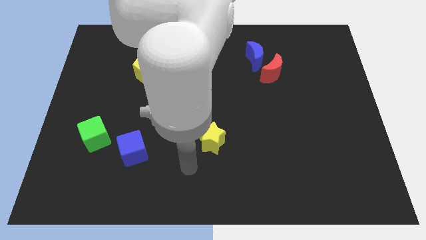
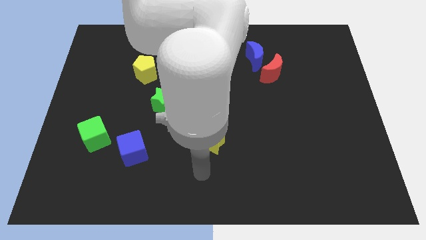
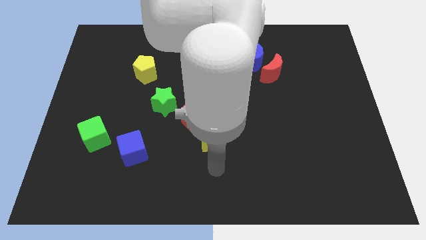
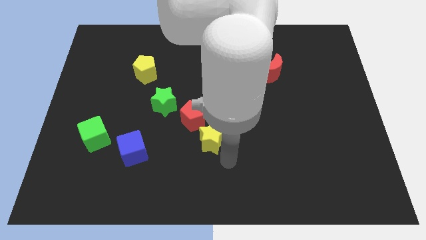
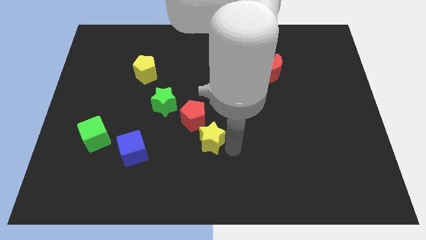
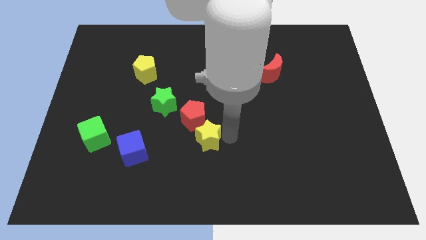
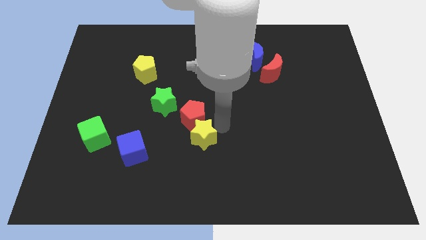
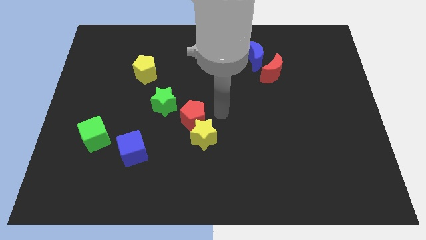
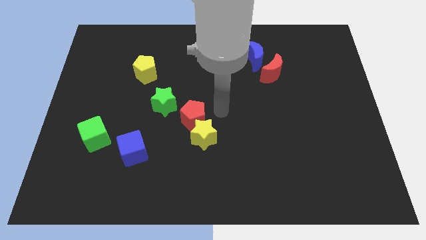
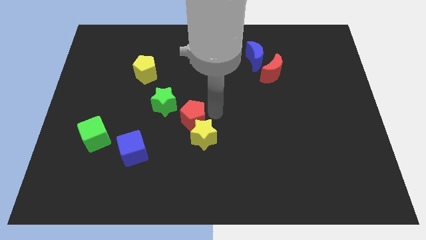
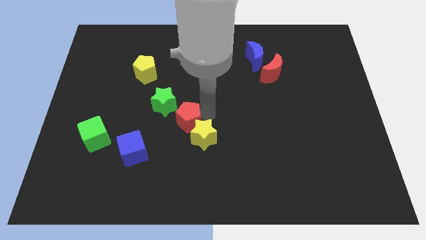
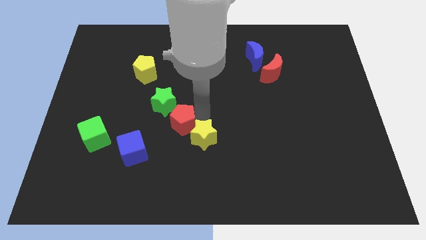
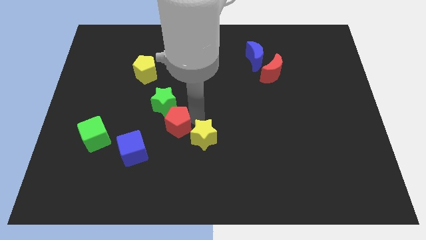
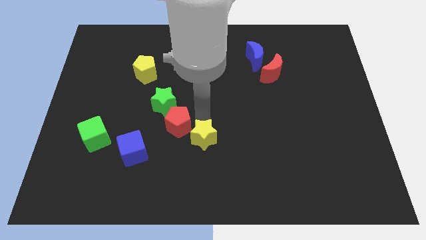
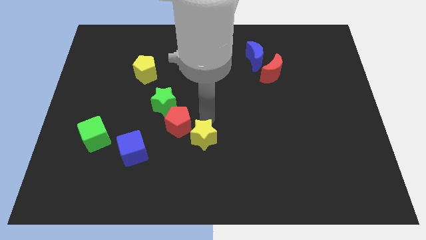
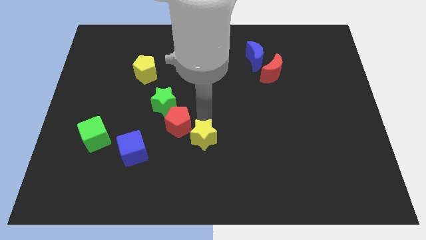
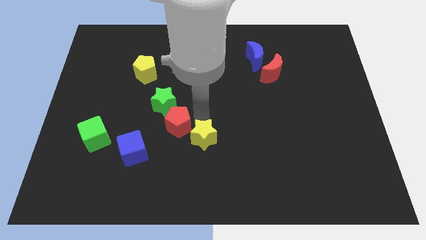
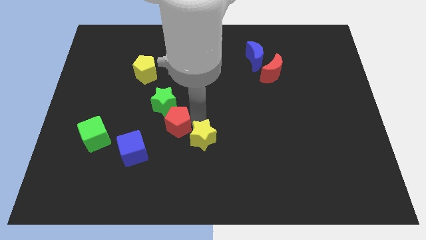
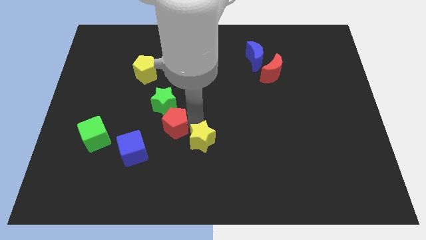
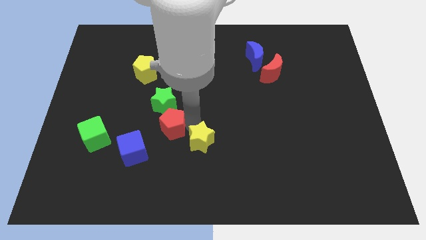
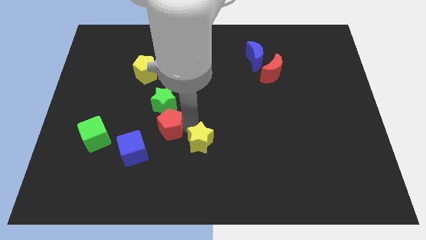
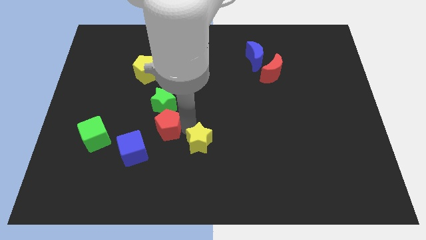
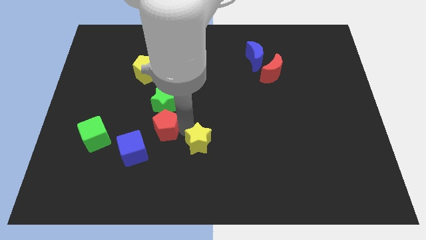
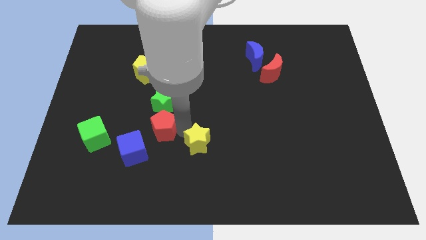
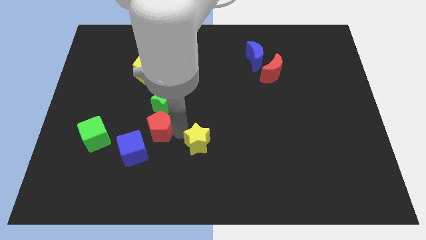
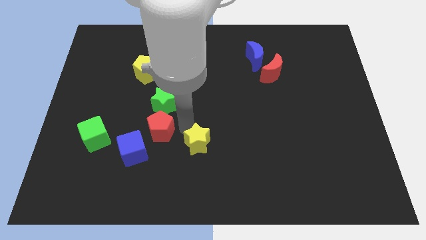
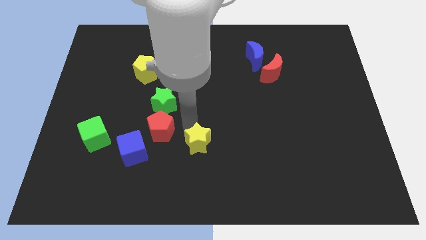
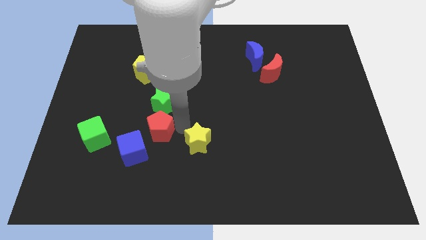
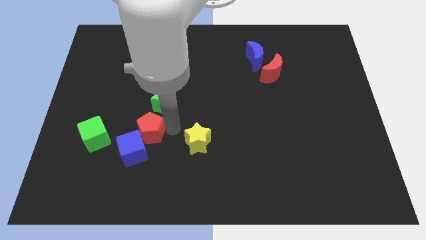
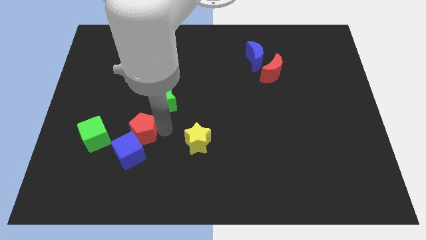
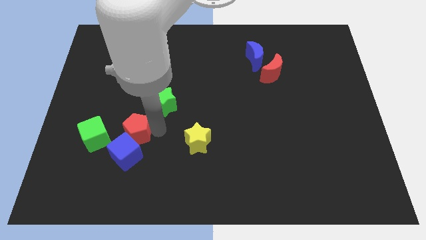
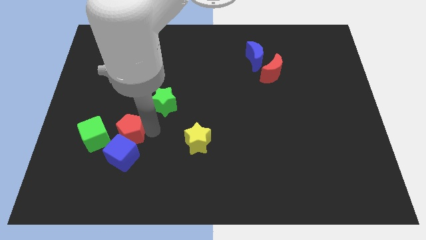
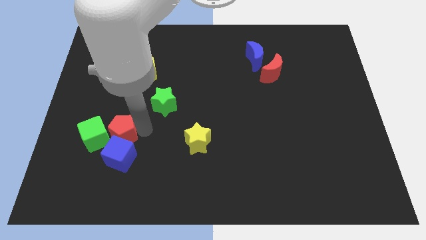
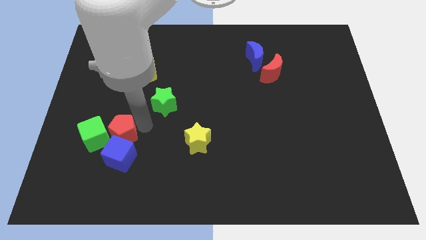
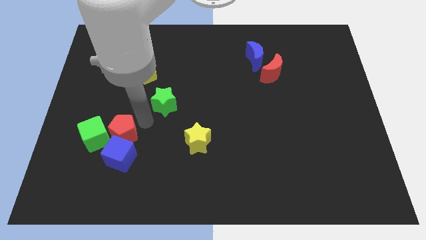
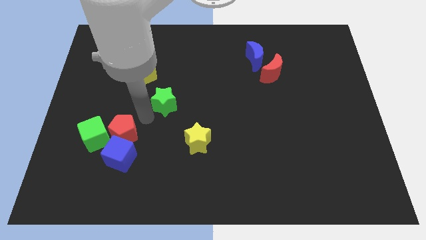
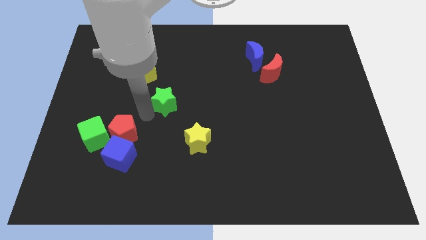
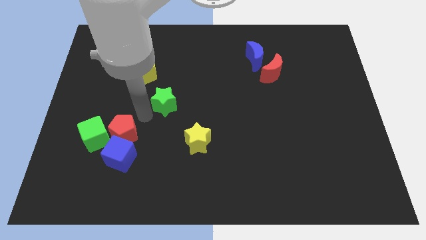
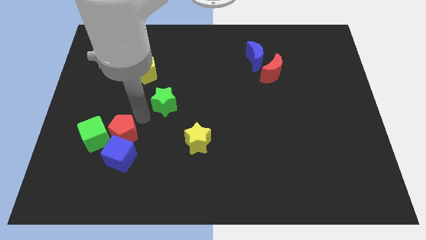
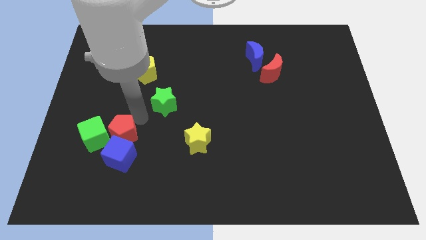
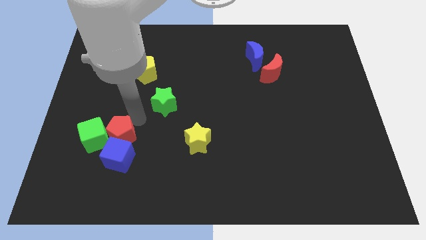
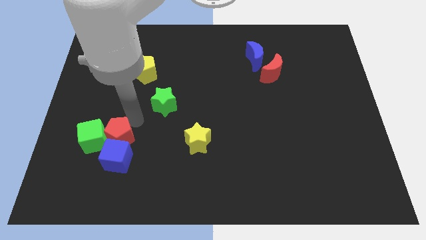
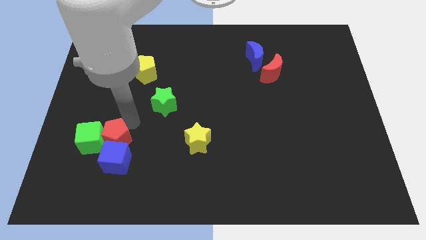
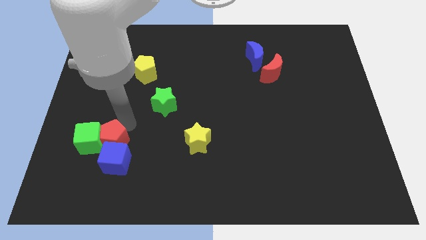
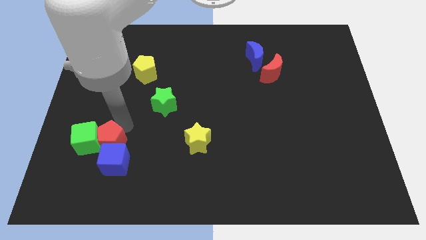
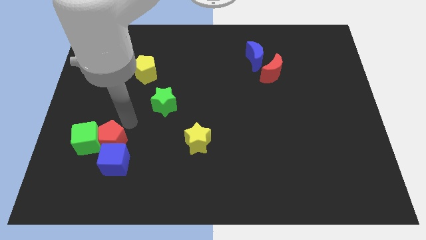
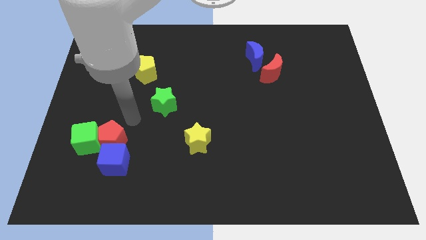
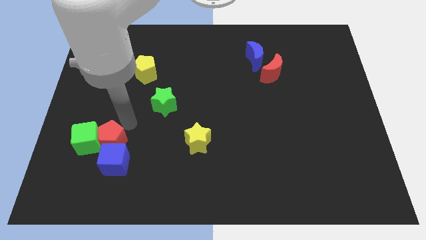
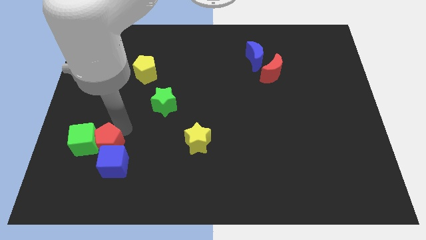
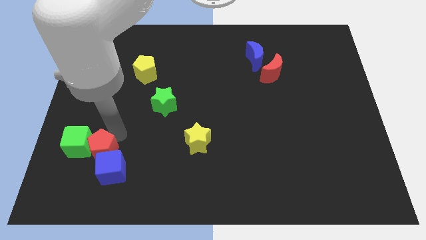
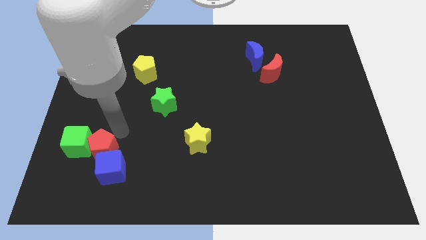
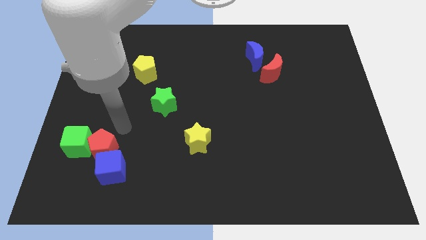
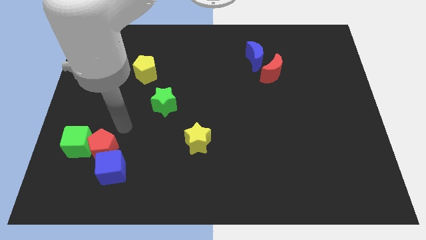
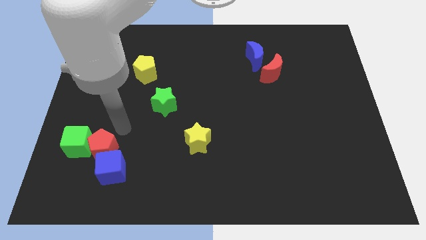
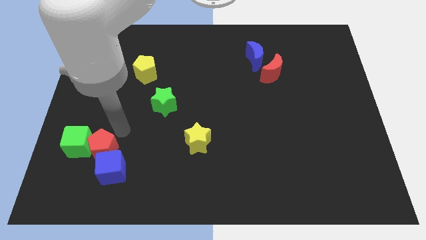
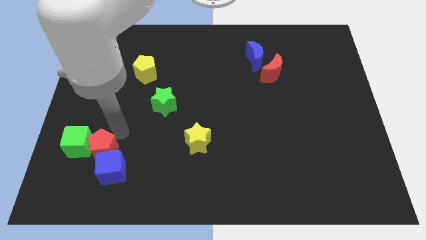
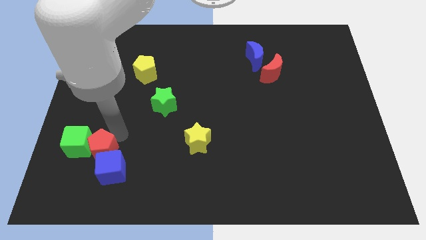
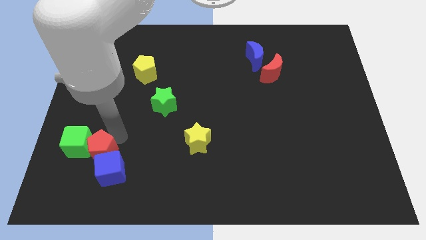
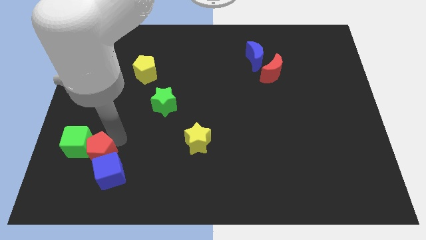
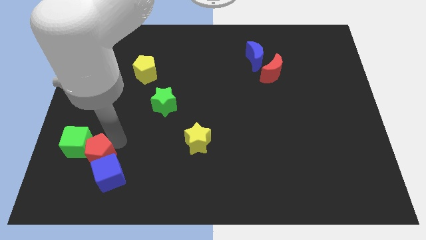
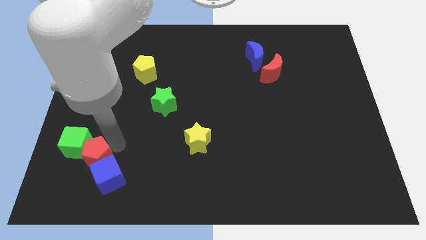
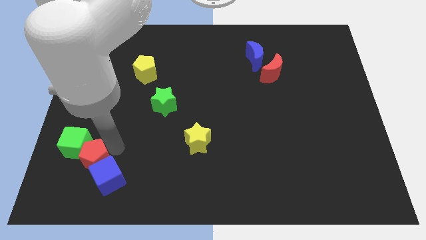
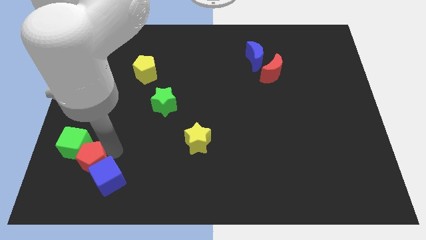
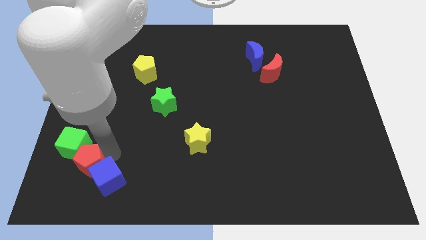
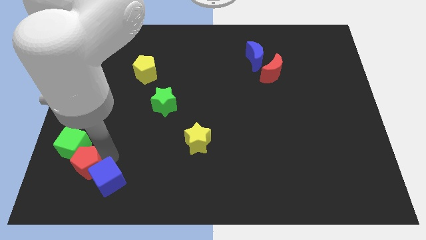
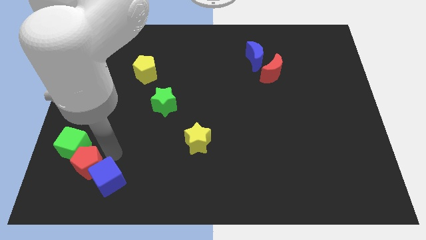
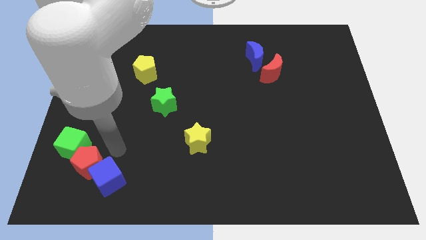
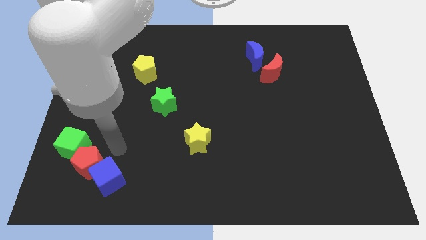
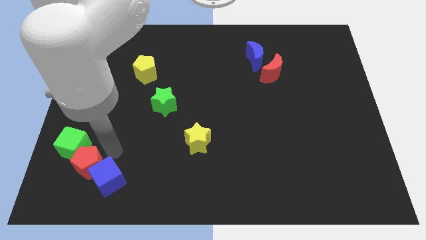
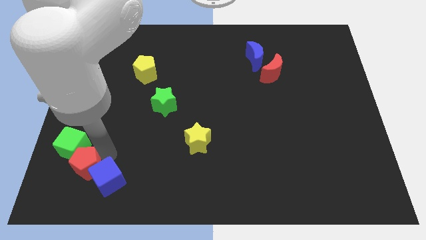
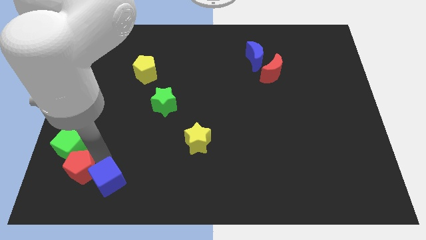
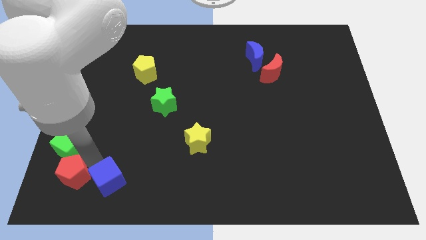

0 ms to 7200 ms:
push the red pentagon to the lower left corner
